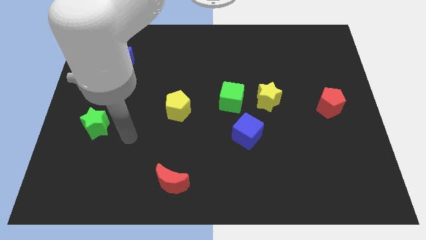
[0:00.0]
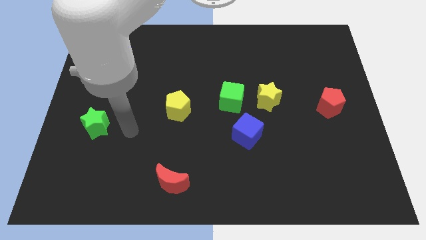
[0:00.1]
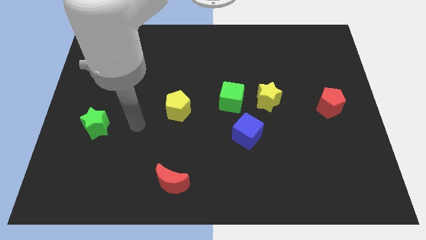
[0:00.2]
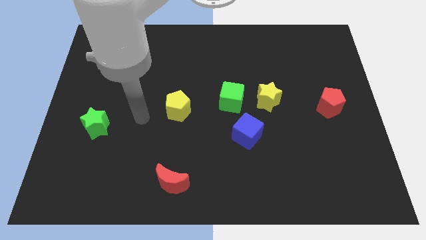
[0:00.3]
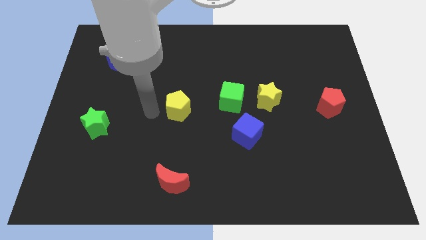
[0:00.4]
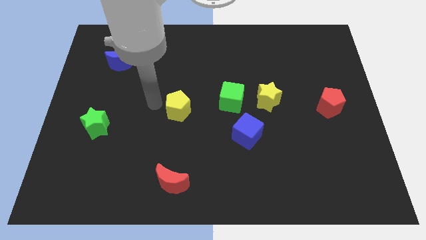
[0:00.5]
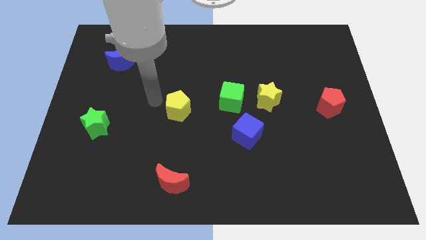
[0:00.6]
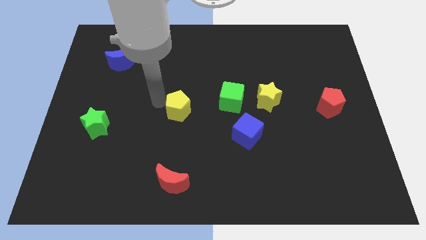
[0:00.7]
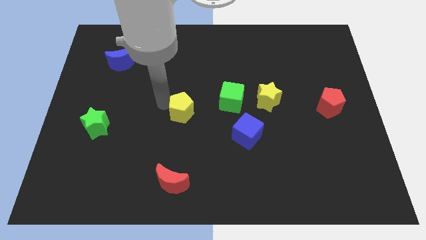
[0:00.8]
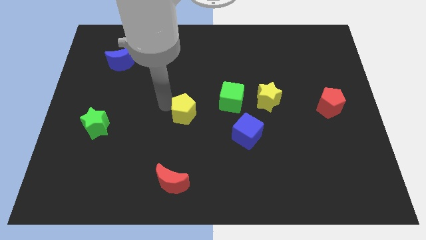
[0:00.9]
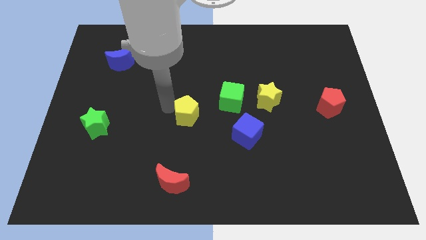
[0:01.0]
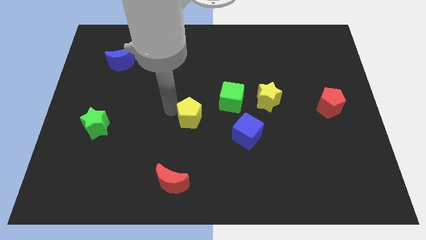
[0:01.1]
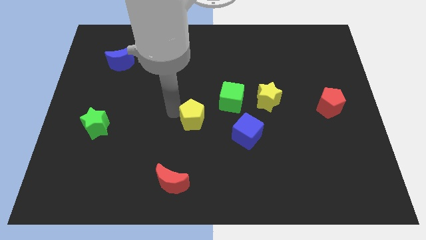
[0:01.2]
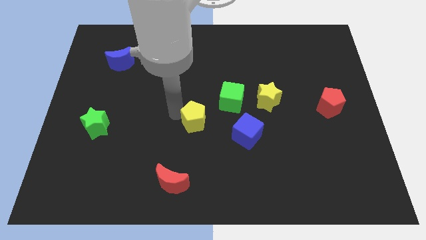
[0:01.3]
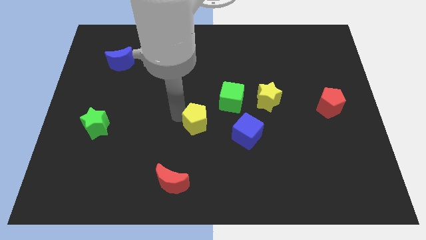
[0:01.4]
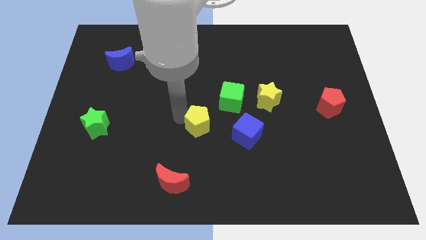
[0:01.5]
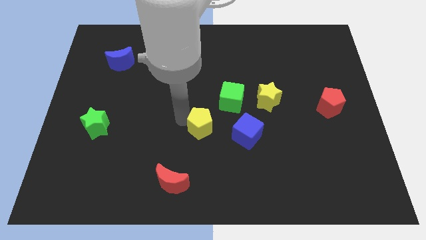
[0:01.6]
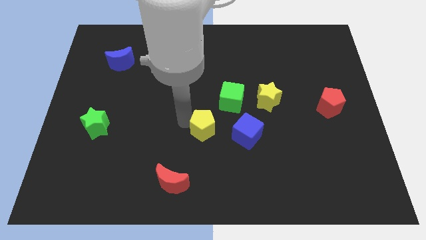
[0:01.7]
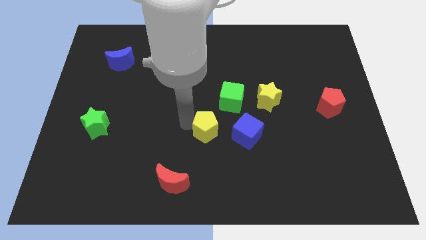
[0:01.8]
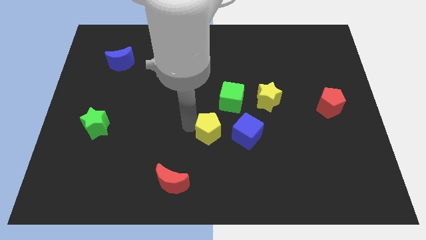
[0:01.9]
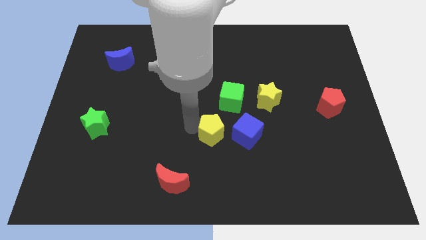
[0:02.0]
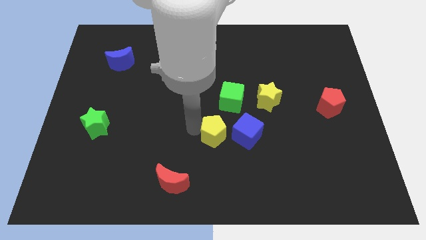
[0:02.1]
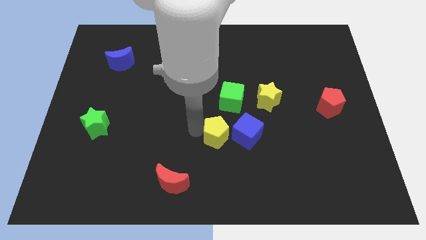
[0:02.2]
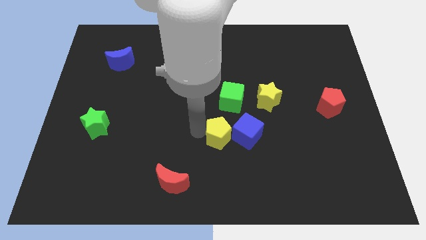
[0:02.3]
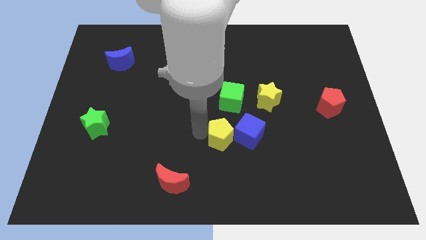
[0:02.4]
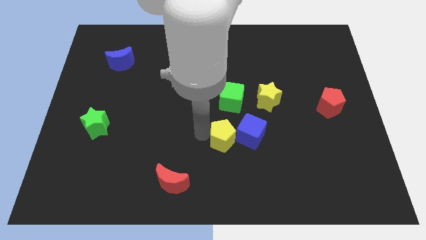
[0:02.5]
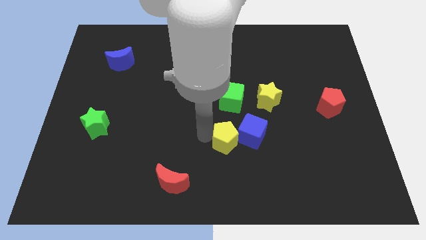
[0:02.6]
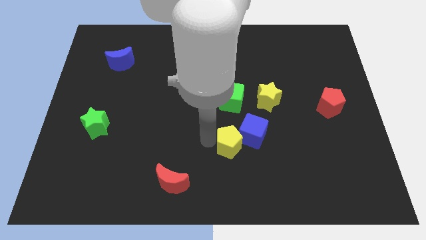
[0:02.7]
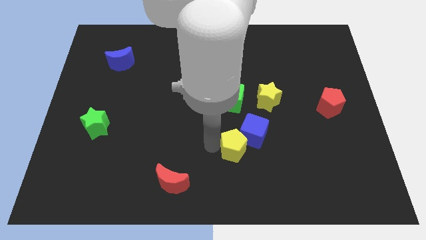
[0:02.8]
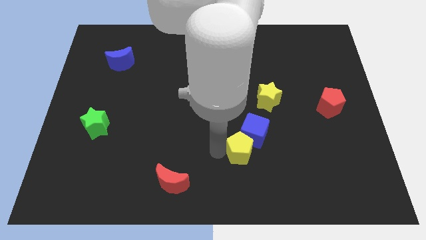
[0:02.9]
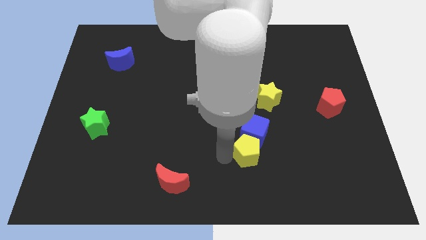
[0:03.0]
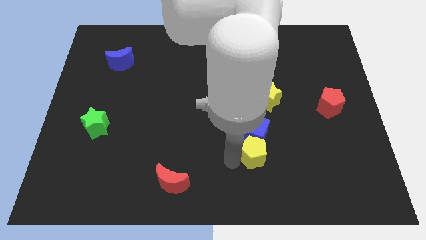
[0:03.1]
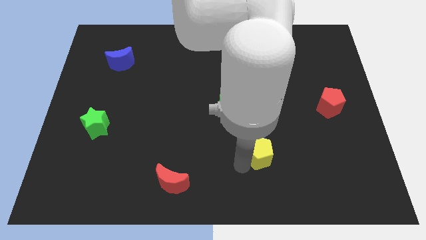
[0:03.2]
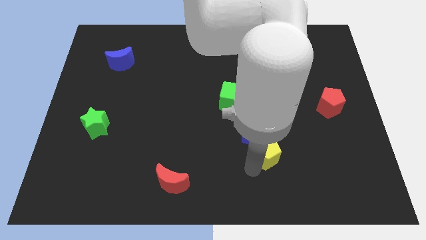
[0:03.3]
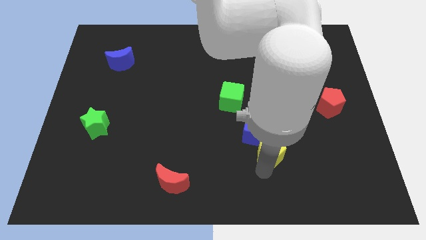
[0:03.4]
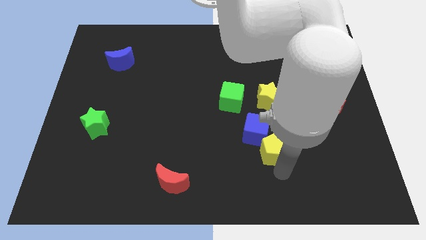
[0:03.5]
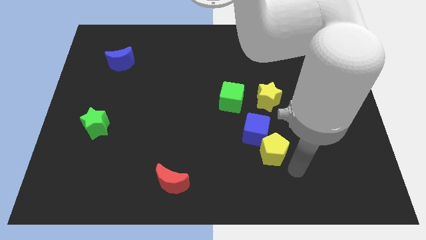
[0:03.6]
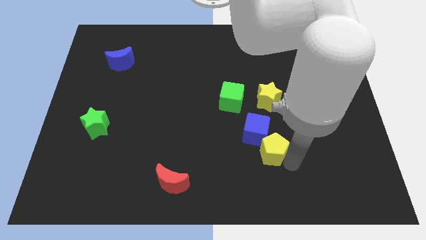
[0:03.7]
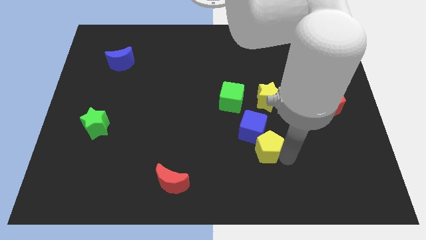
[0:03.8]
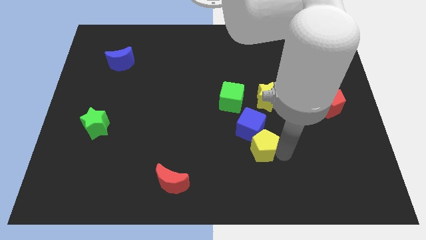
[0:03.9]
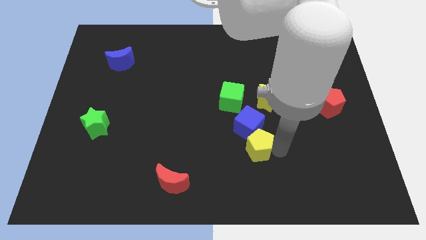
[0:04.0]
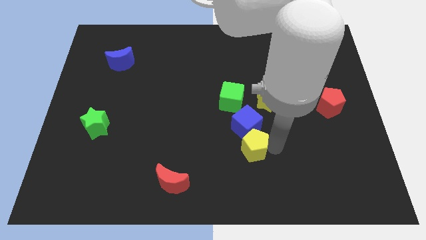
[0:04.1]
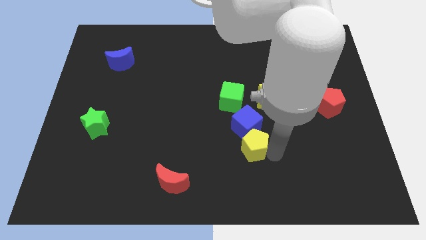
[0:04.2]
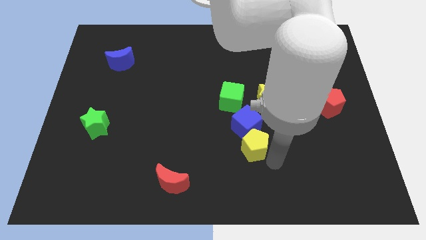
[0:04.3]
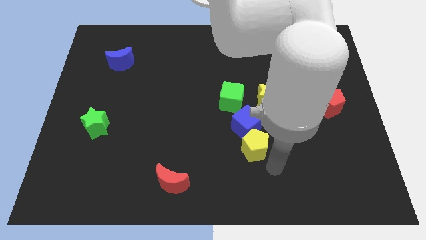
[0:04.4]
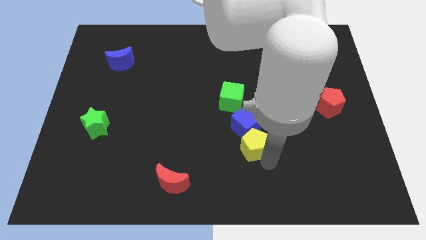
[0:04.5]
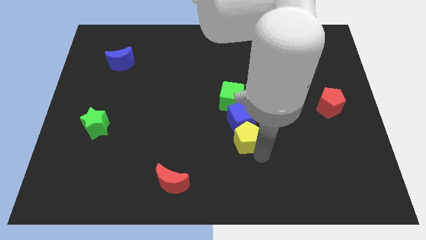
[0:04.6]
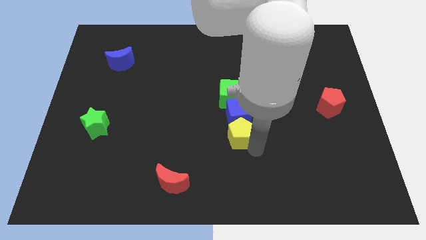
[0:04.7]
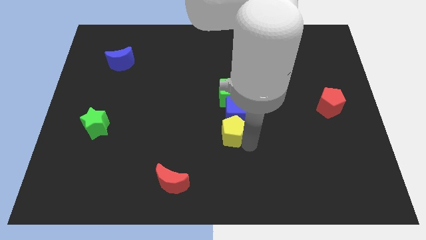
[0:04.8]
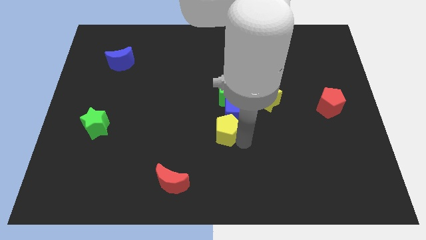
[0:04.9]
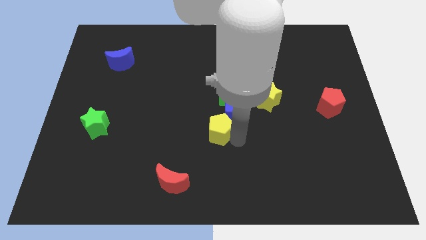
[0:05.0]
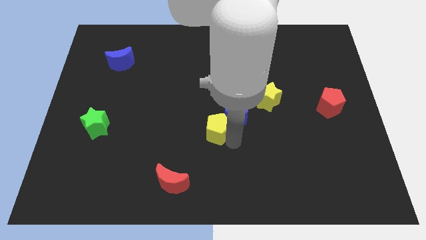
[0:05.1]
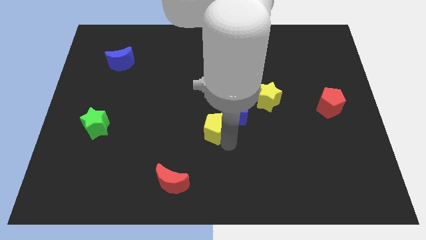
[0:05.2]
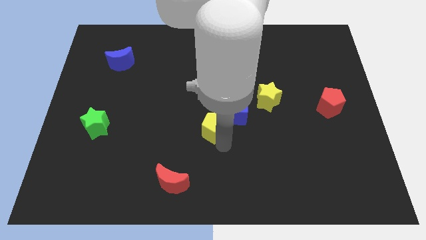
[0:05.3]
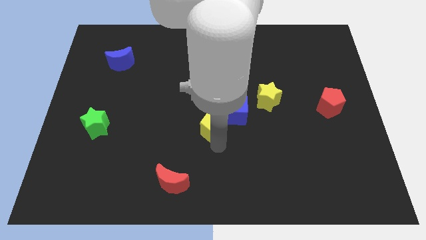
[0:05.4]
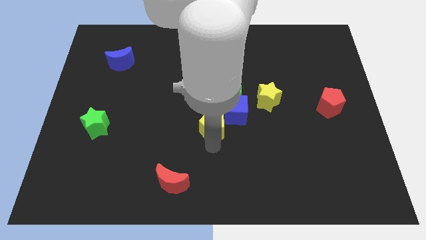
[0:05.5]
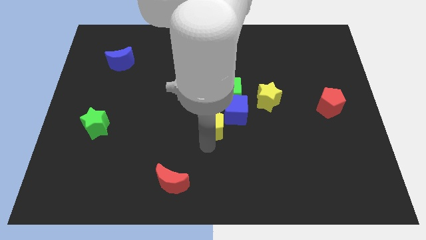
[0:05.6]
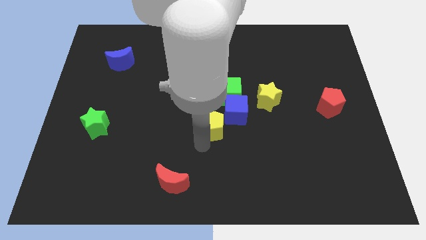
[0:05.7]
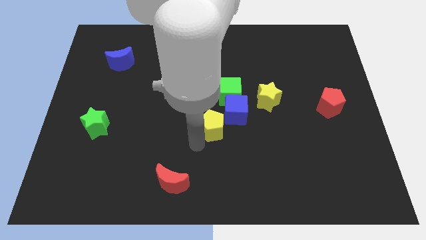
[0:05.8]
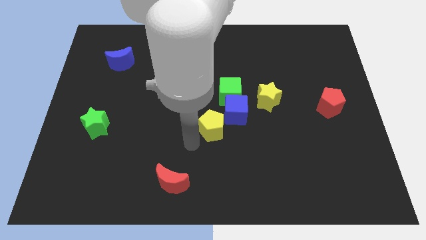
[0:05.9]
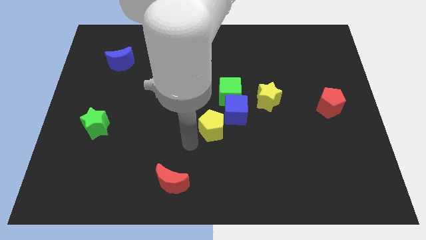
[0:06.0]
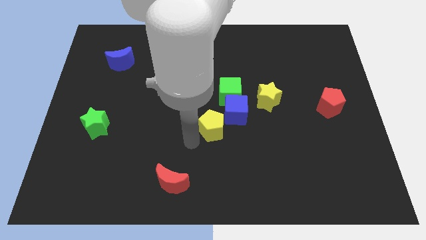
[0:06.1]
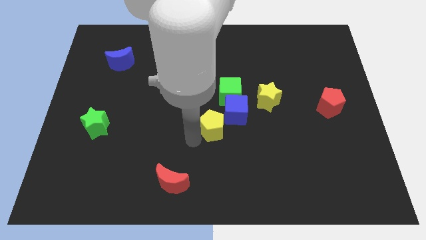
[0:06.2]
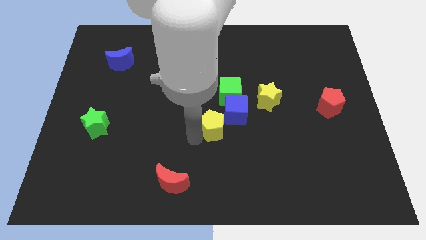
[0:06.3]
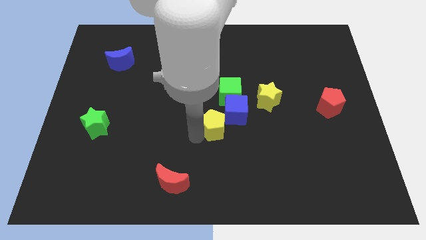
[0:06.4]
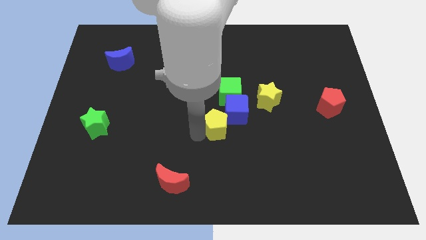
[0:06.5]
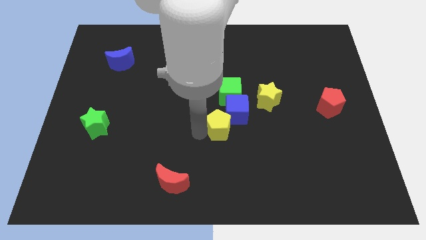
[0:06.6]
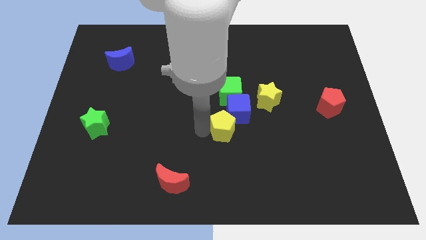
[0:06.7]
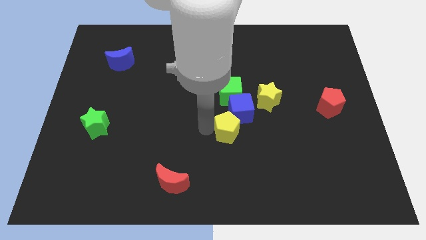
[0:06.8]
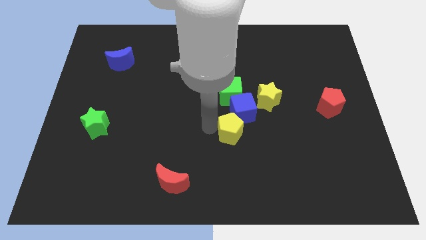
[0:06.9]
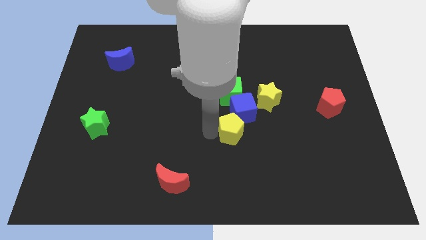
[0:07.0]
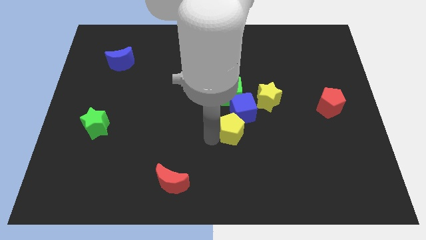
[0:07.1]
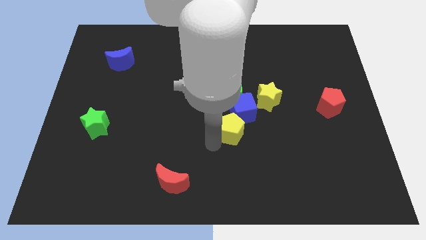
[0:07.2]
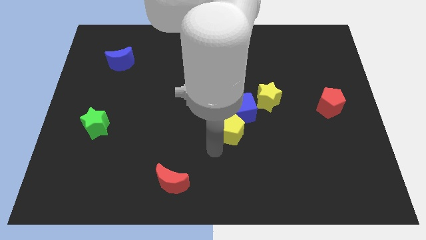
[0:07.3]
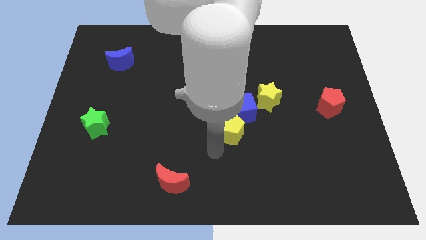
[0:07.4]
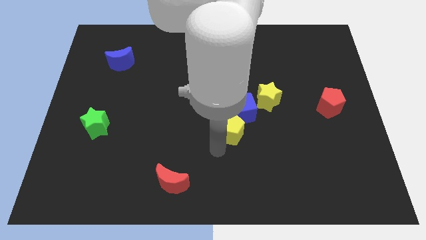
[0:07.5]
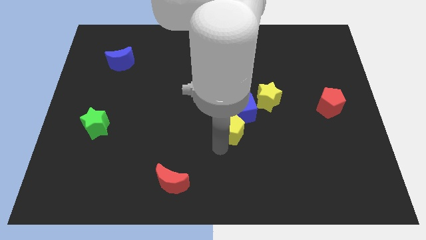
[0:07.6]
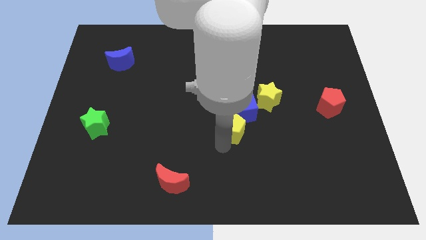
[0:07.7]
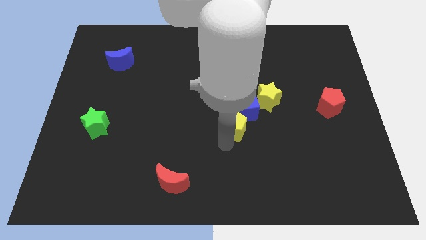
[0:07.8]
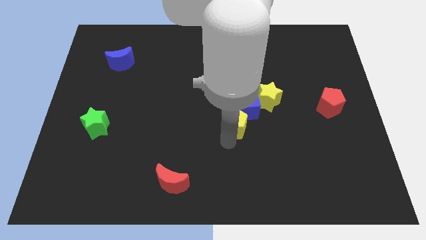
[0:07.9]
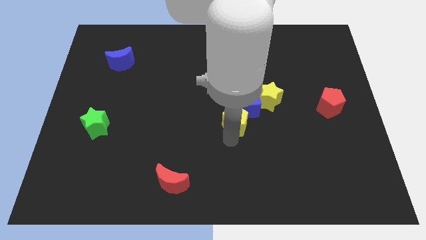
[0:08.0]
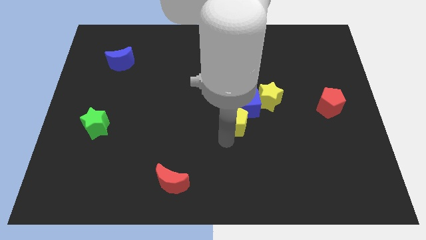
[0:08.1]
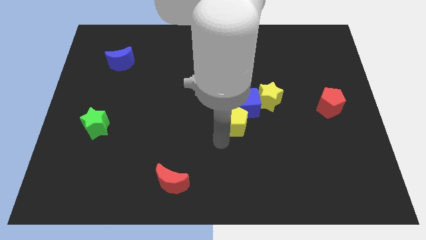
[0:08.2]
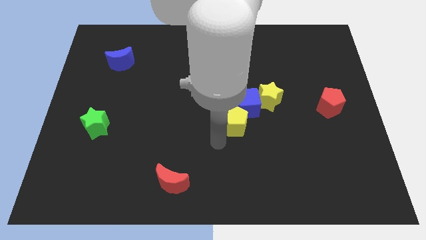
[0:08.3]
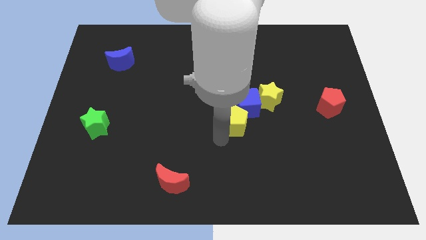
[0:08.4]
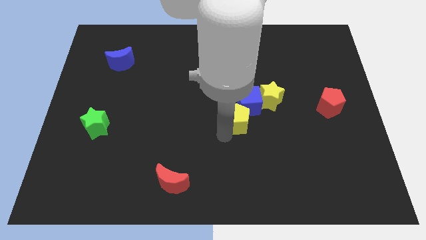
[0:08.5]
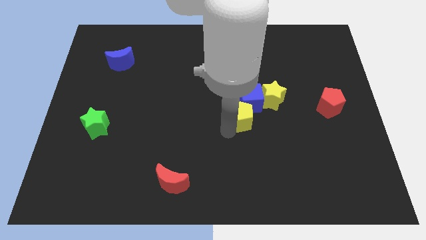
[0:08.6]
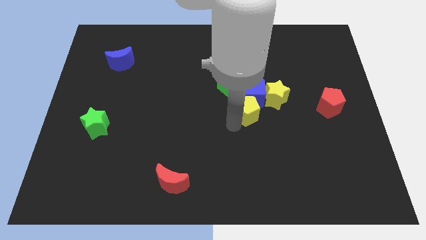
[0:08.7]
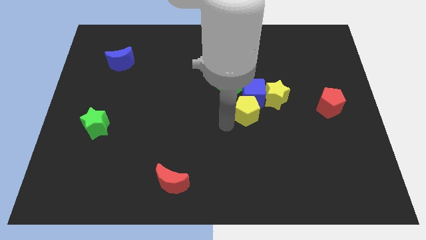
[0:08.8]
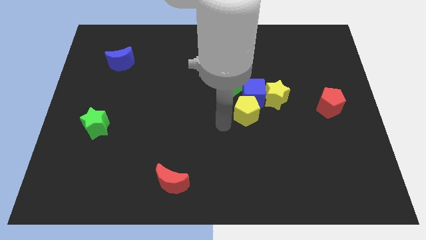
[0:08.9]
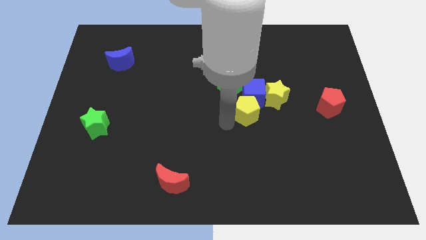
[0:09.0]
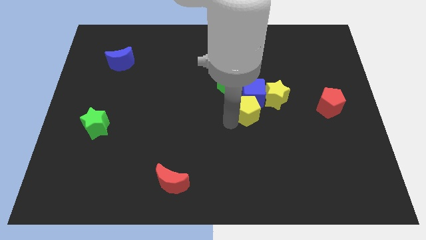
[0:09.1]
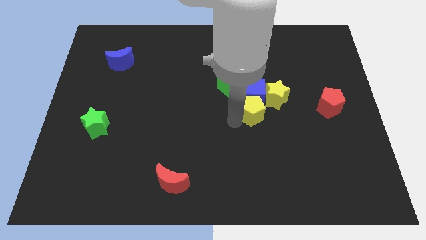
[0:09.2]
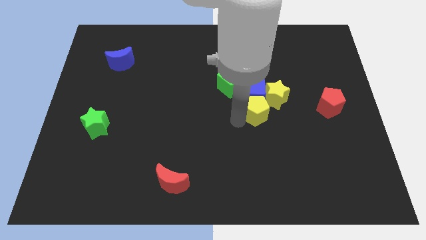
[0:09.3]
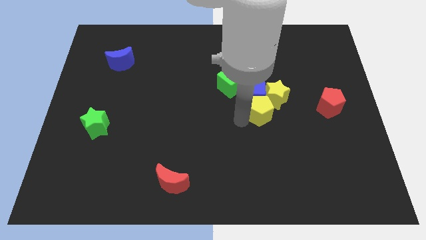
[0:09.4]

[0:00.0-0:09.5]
move the yellow pentagon close to the yellow star
